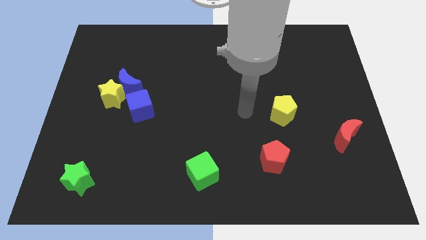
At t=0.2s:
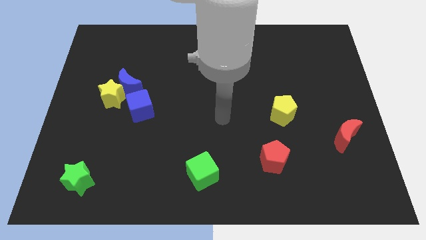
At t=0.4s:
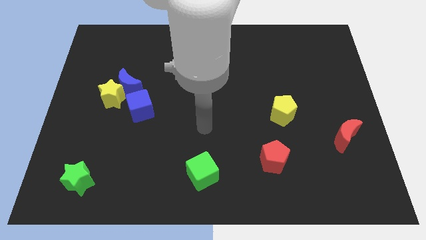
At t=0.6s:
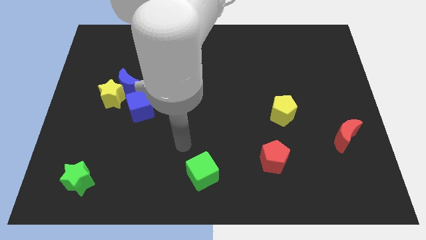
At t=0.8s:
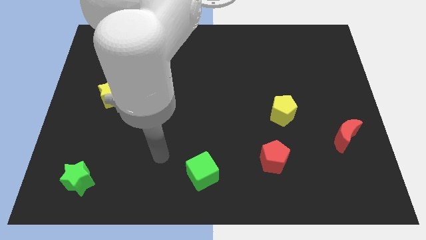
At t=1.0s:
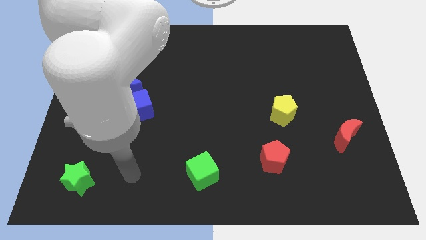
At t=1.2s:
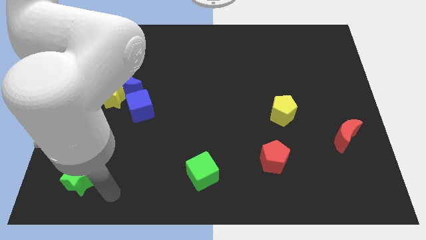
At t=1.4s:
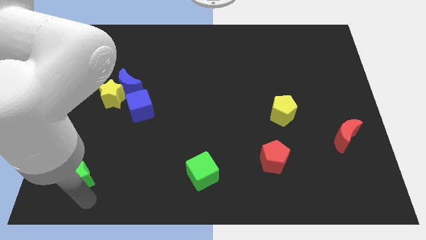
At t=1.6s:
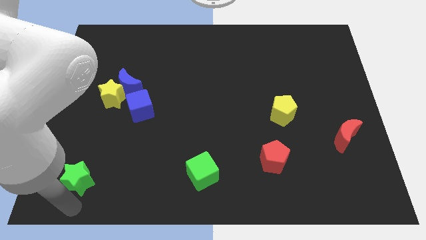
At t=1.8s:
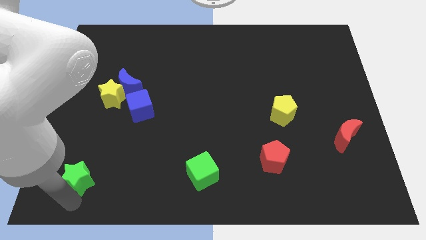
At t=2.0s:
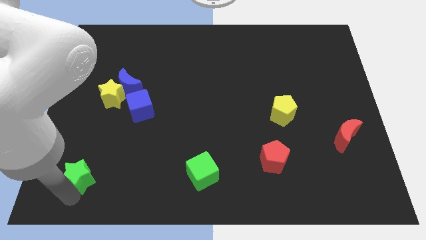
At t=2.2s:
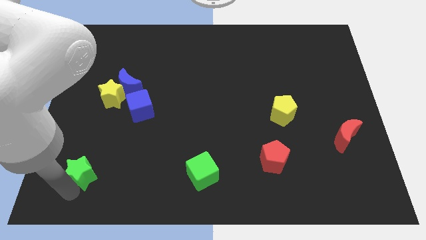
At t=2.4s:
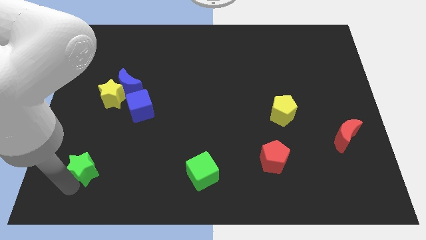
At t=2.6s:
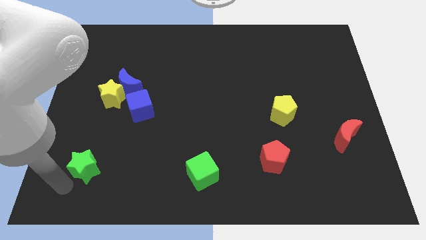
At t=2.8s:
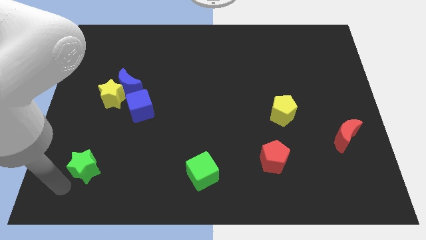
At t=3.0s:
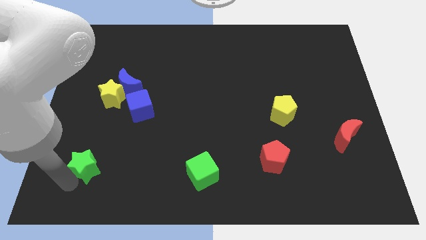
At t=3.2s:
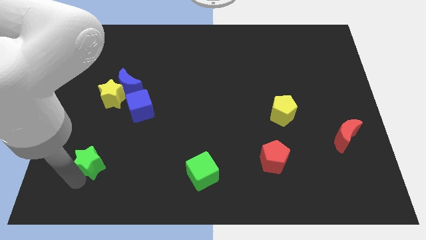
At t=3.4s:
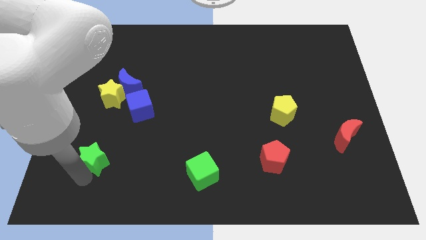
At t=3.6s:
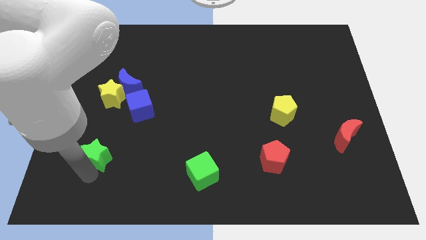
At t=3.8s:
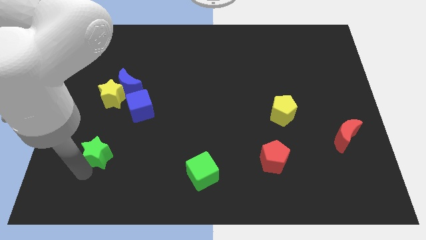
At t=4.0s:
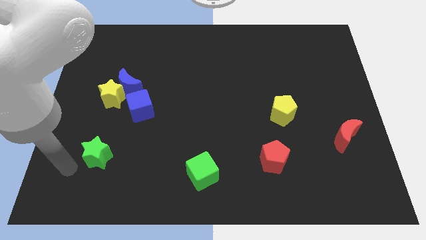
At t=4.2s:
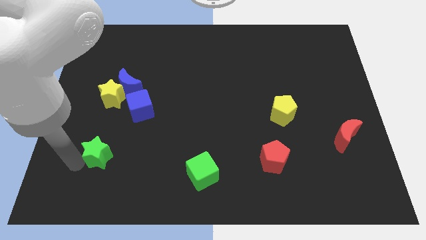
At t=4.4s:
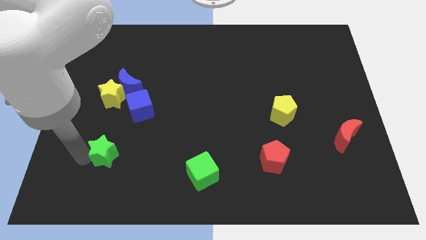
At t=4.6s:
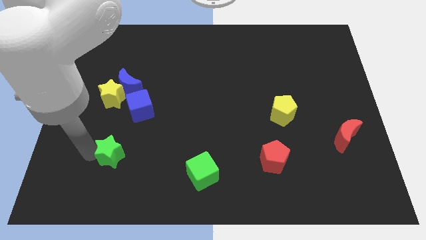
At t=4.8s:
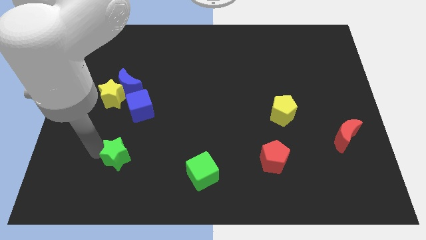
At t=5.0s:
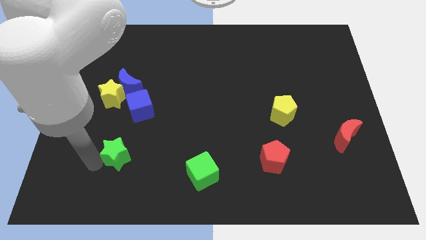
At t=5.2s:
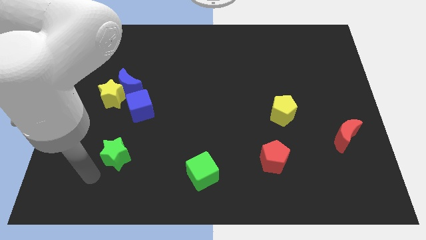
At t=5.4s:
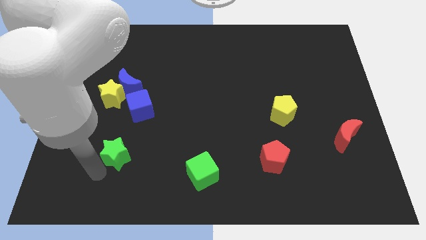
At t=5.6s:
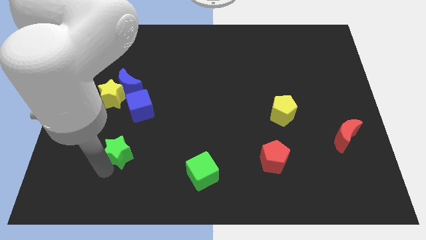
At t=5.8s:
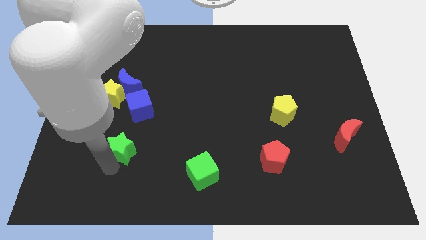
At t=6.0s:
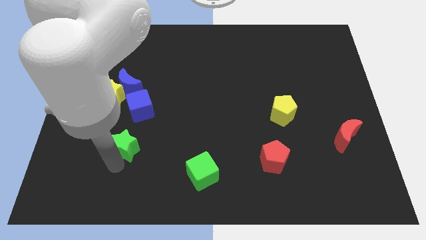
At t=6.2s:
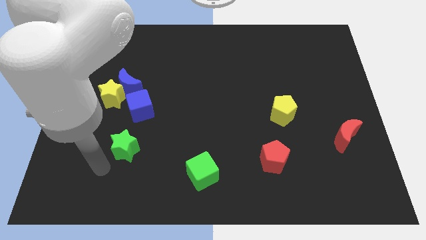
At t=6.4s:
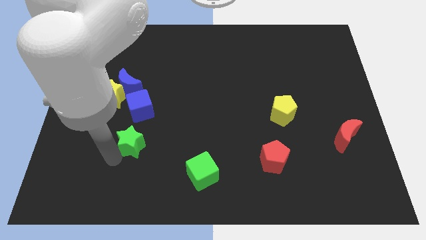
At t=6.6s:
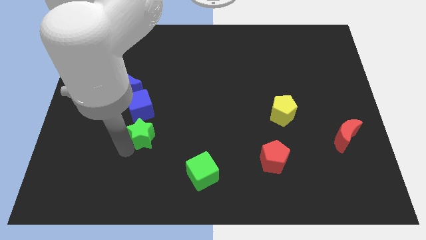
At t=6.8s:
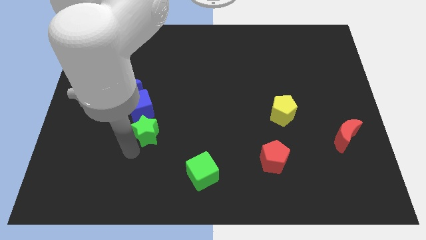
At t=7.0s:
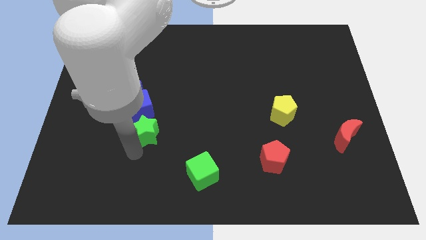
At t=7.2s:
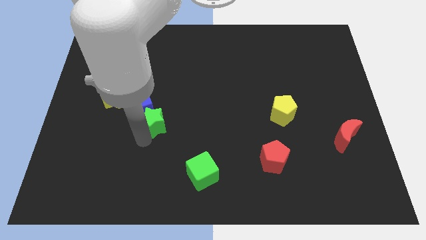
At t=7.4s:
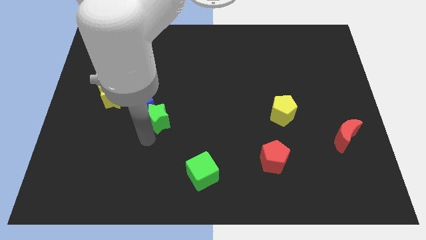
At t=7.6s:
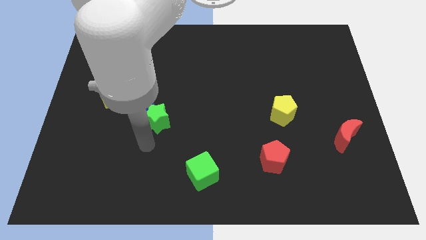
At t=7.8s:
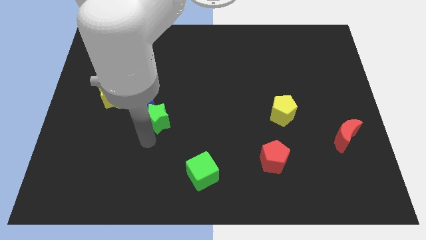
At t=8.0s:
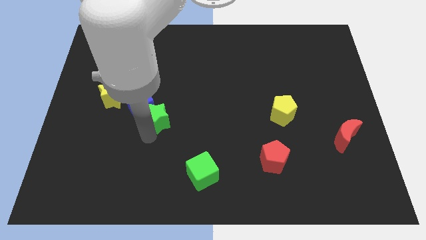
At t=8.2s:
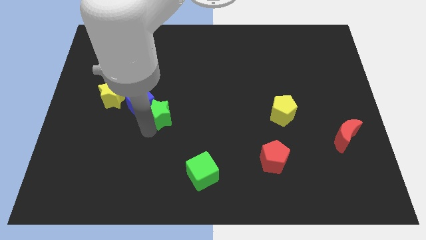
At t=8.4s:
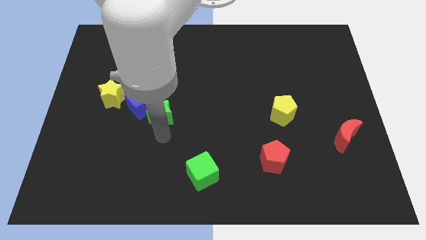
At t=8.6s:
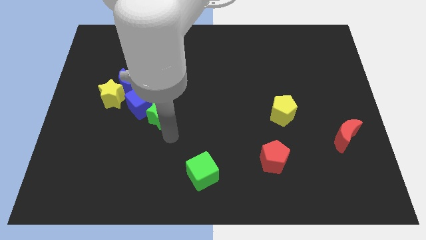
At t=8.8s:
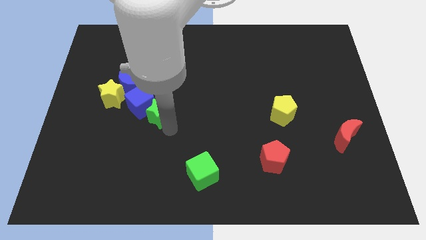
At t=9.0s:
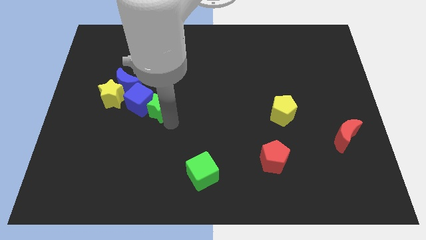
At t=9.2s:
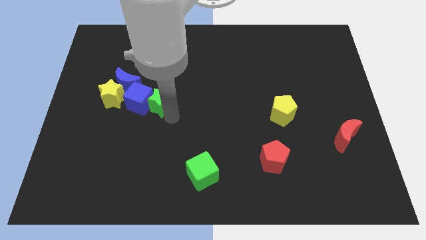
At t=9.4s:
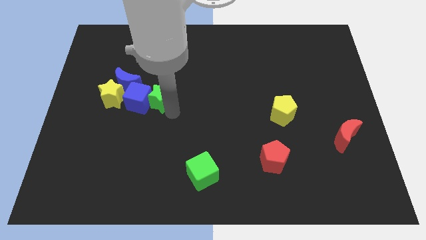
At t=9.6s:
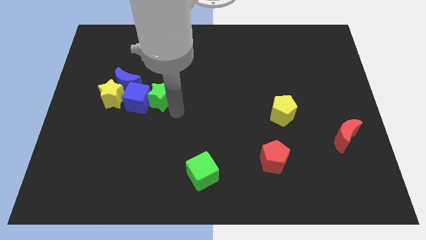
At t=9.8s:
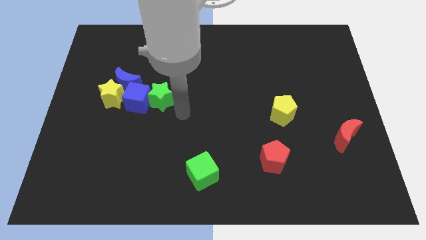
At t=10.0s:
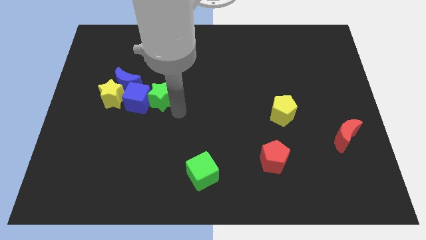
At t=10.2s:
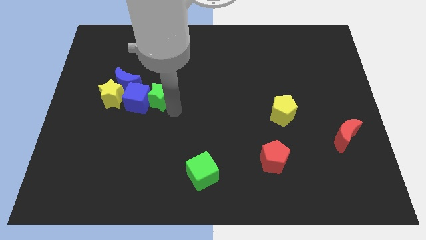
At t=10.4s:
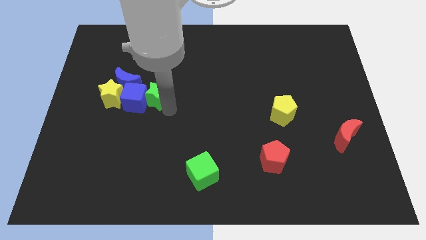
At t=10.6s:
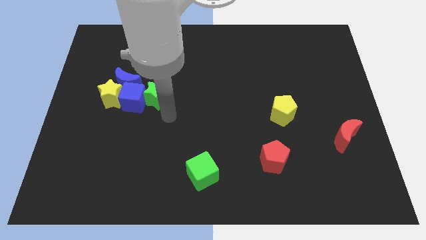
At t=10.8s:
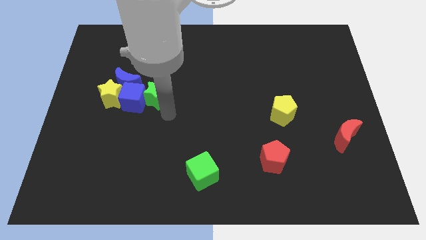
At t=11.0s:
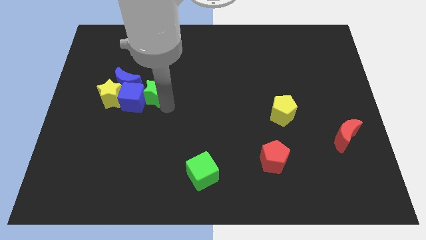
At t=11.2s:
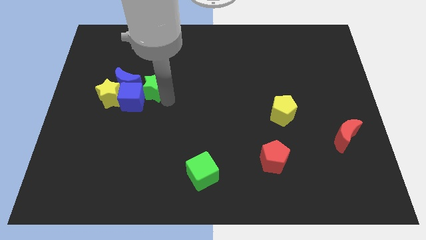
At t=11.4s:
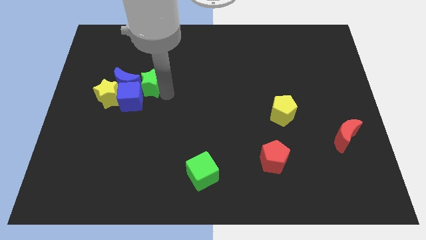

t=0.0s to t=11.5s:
push the green star to the top of the blue cube

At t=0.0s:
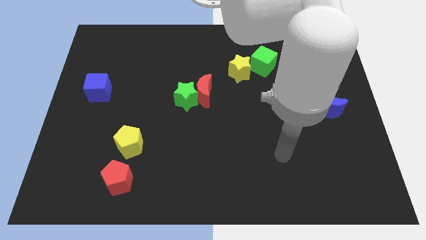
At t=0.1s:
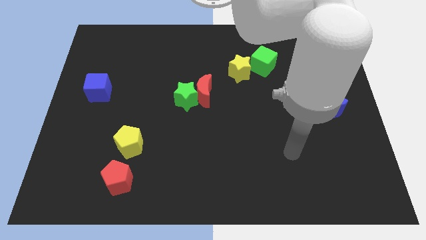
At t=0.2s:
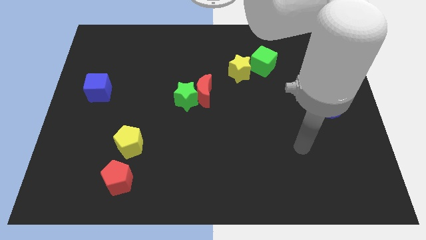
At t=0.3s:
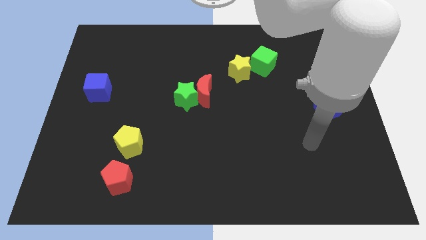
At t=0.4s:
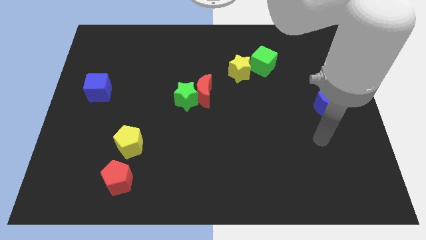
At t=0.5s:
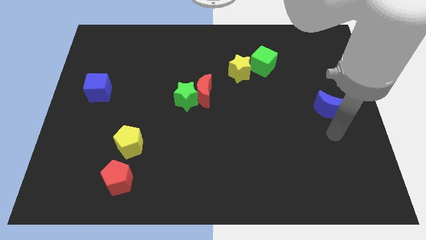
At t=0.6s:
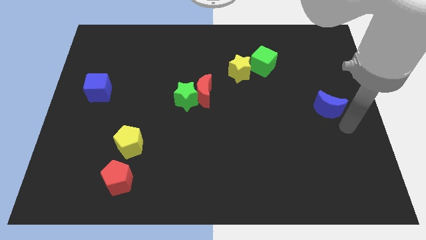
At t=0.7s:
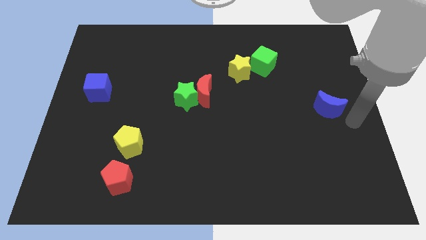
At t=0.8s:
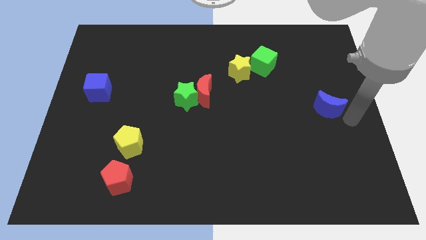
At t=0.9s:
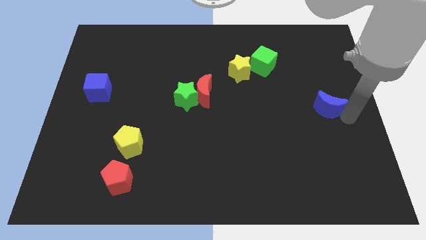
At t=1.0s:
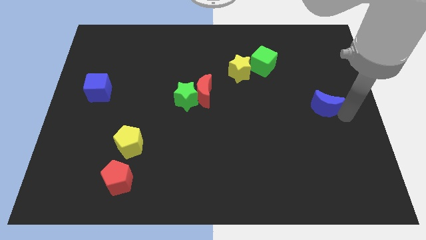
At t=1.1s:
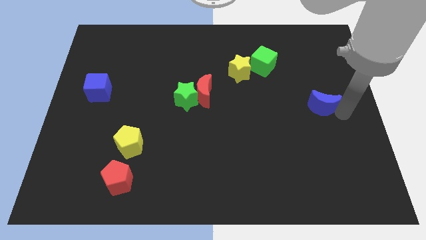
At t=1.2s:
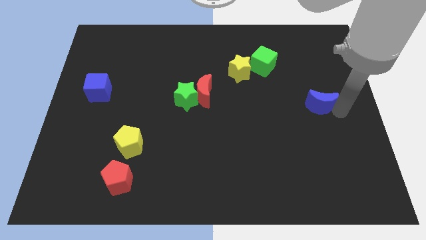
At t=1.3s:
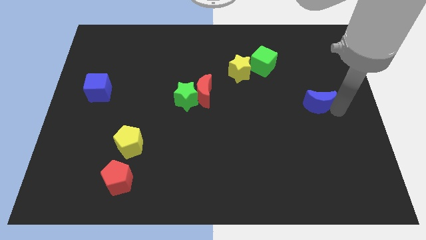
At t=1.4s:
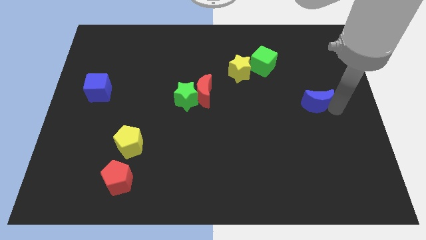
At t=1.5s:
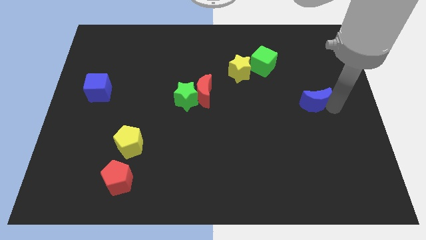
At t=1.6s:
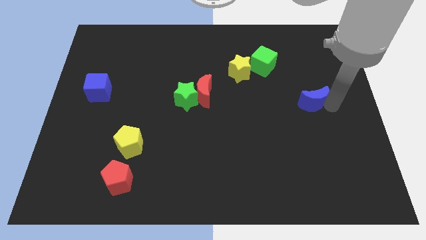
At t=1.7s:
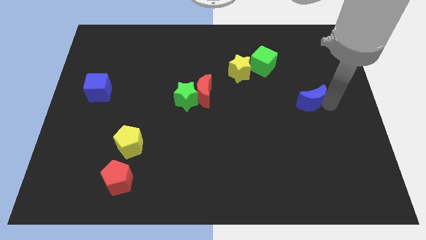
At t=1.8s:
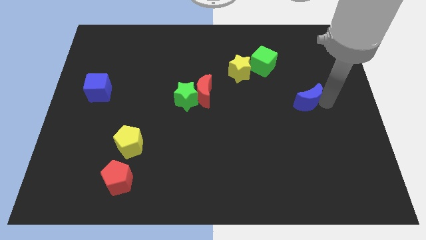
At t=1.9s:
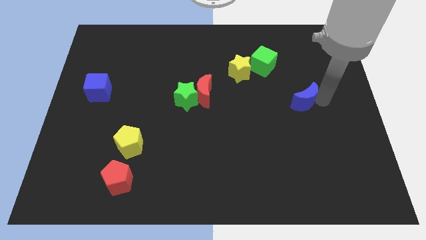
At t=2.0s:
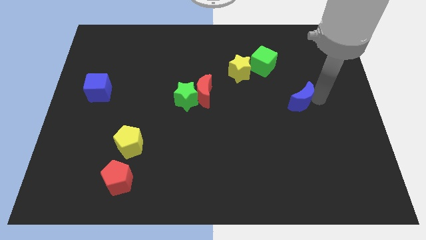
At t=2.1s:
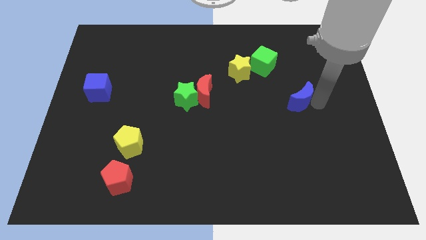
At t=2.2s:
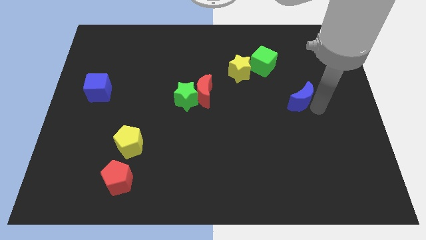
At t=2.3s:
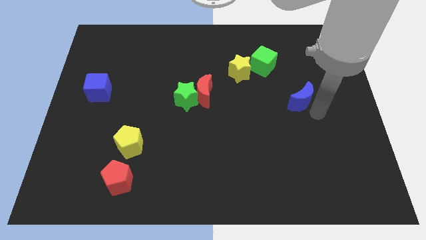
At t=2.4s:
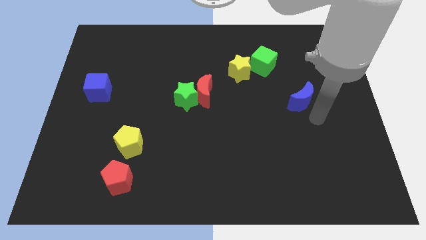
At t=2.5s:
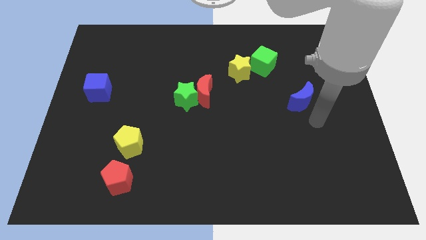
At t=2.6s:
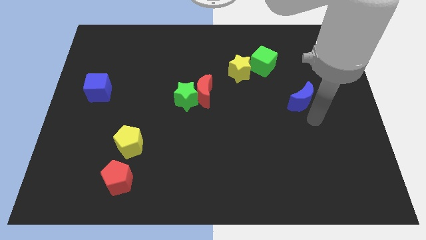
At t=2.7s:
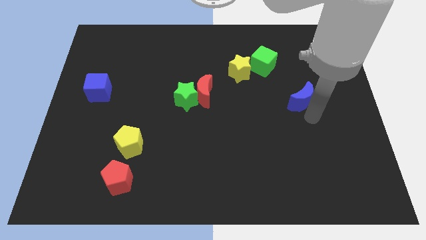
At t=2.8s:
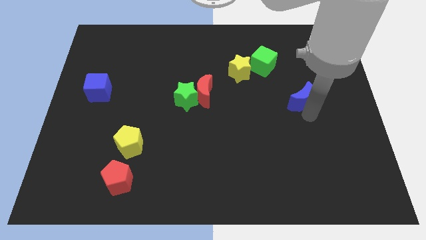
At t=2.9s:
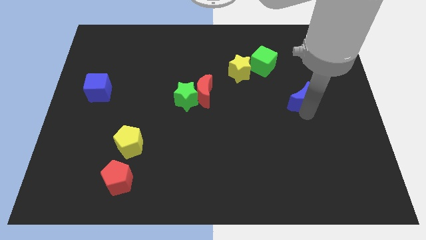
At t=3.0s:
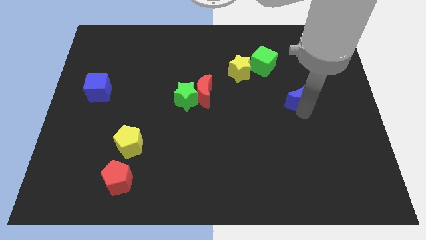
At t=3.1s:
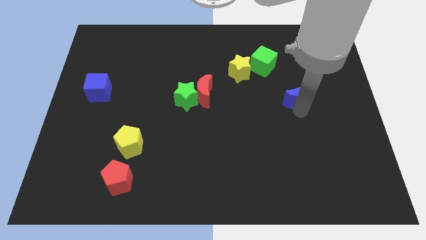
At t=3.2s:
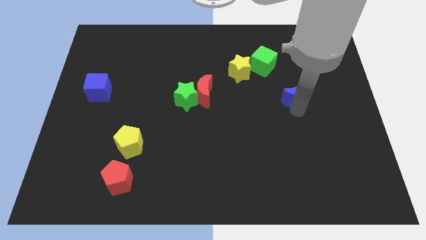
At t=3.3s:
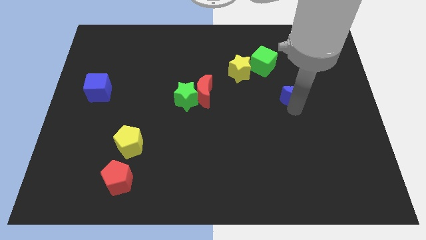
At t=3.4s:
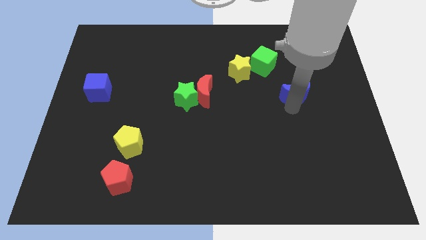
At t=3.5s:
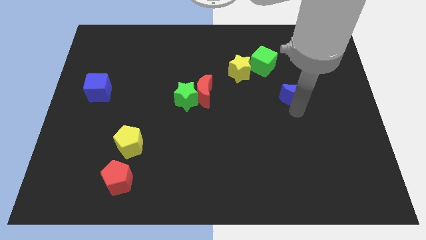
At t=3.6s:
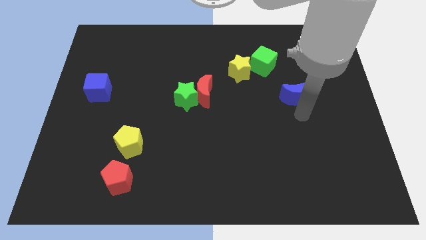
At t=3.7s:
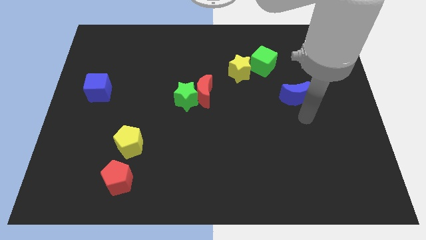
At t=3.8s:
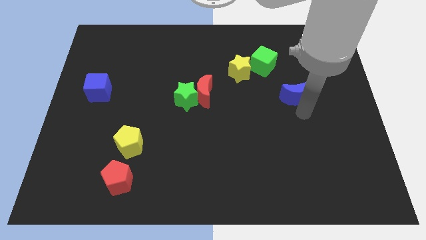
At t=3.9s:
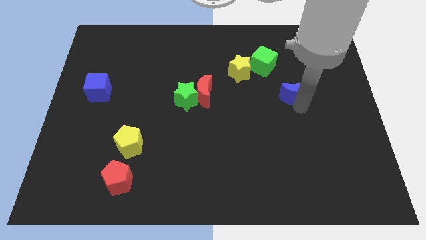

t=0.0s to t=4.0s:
put the blue moon diagonally down and to the right of the green cube
